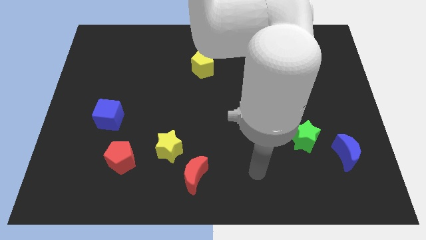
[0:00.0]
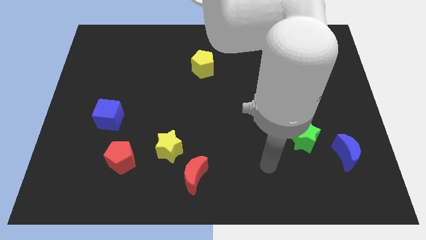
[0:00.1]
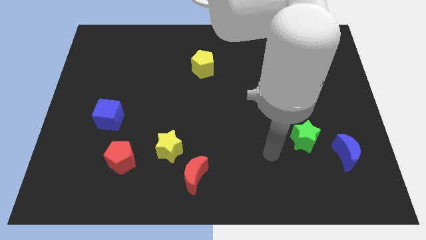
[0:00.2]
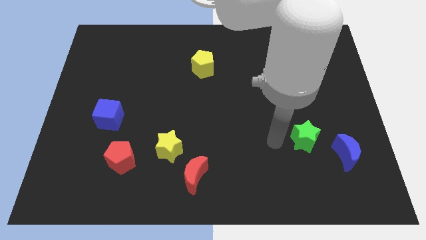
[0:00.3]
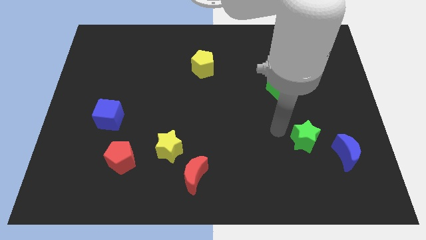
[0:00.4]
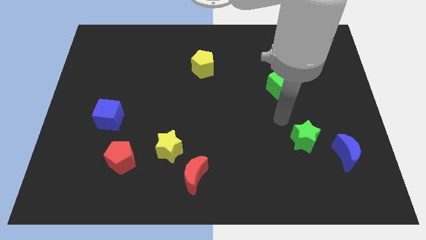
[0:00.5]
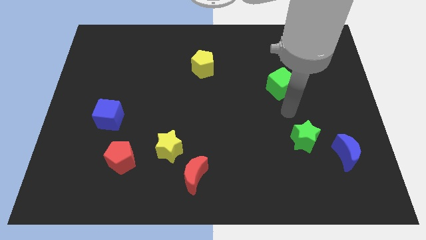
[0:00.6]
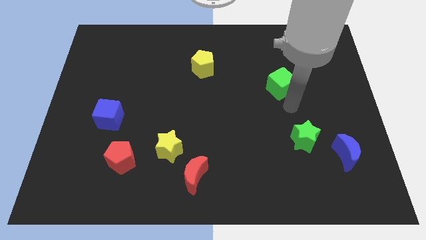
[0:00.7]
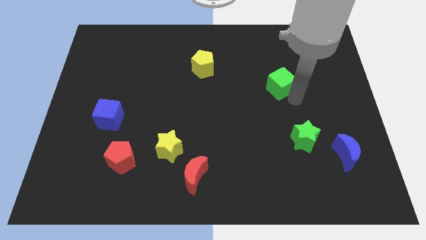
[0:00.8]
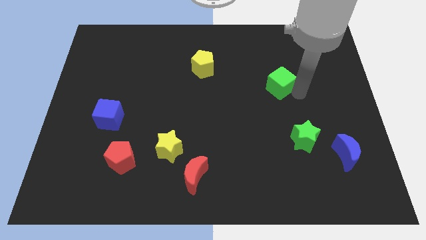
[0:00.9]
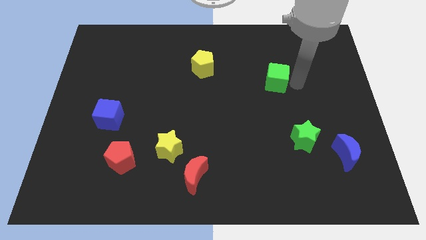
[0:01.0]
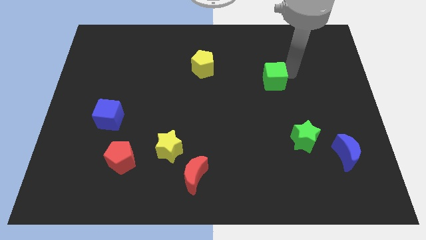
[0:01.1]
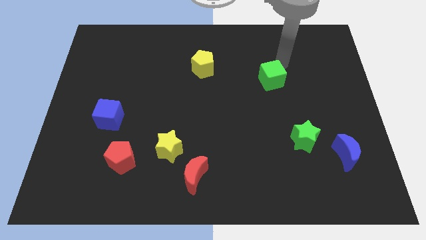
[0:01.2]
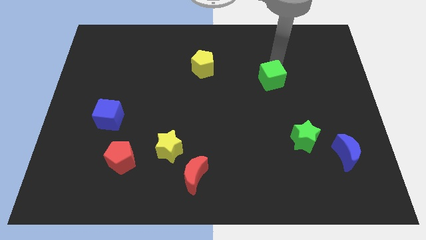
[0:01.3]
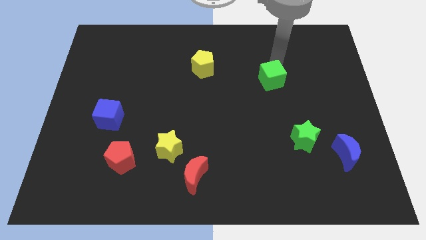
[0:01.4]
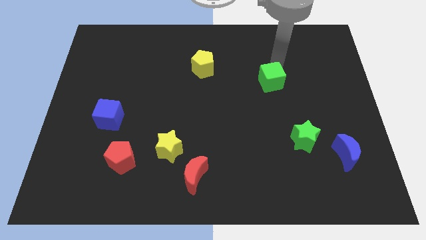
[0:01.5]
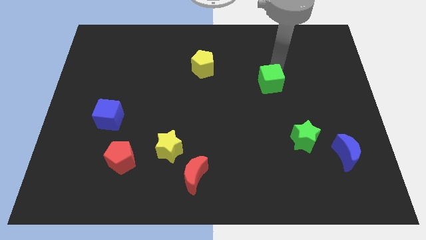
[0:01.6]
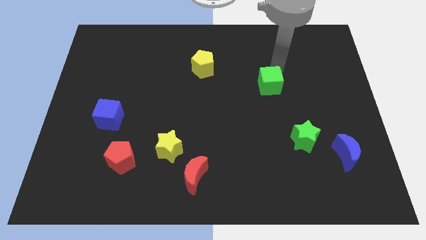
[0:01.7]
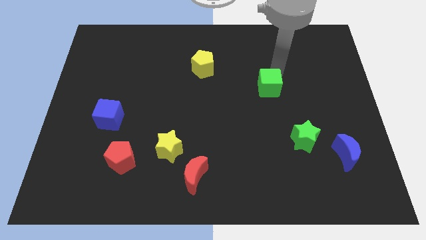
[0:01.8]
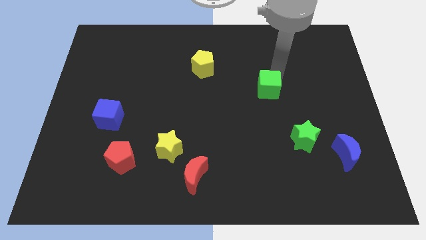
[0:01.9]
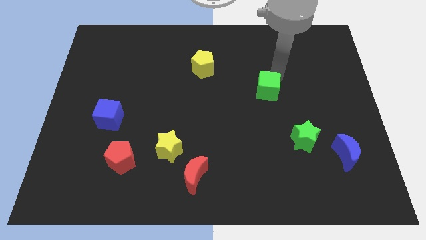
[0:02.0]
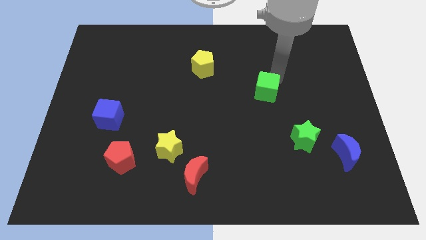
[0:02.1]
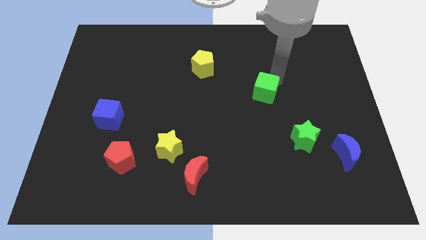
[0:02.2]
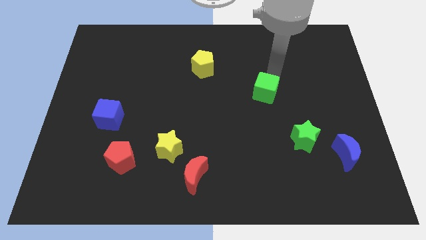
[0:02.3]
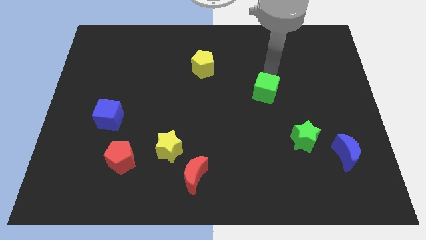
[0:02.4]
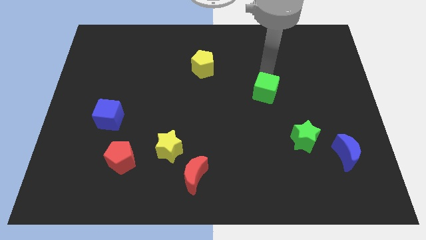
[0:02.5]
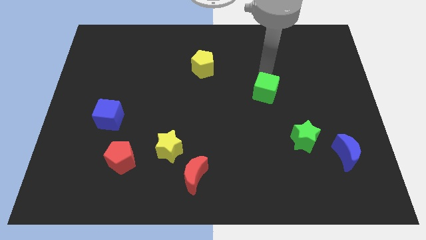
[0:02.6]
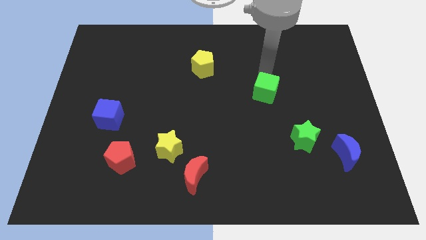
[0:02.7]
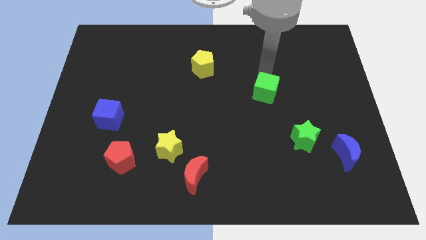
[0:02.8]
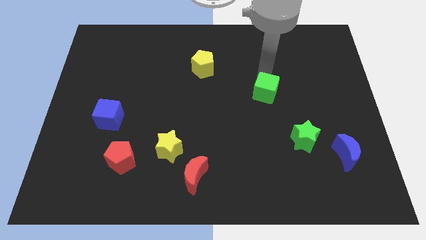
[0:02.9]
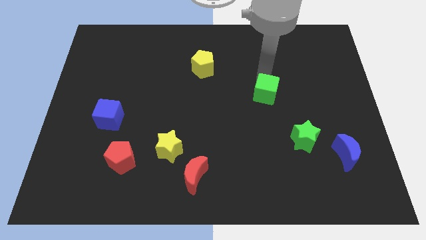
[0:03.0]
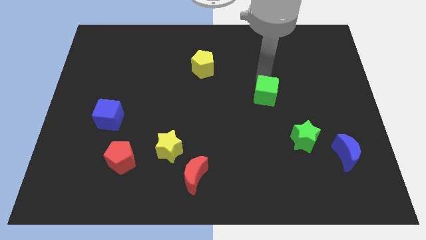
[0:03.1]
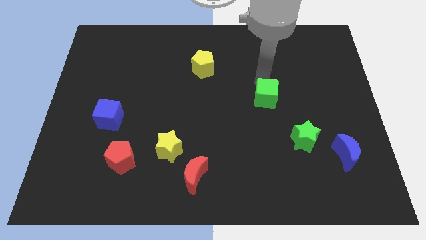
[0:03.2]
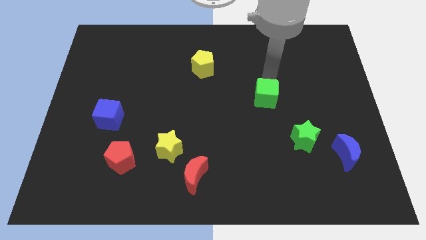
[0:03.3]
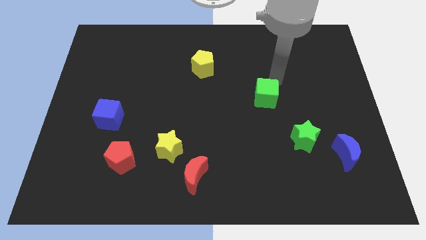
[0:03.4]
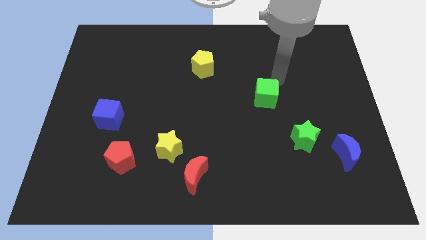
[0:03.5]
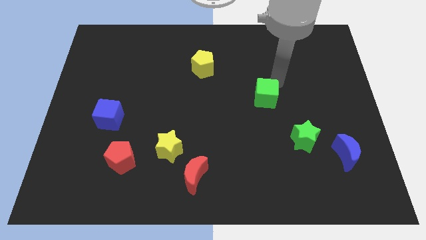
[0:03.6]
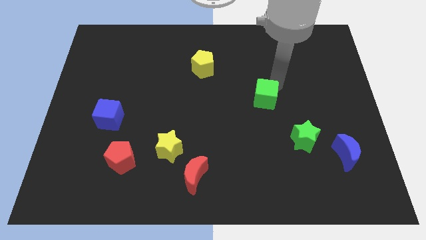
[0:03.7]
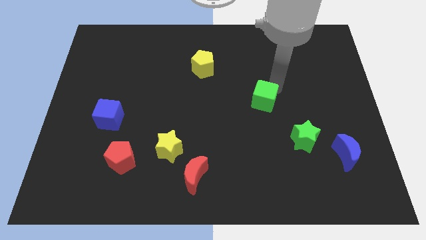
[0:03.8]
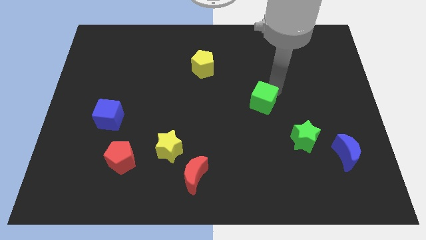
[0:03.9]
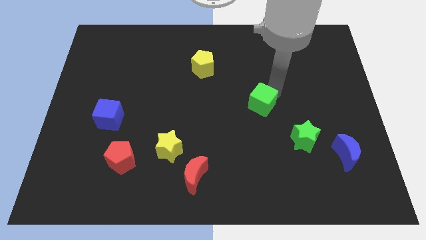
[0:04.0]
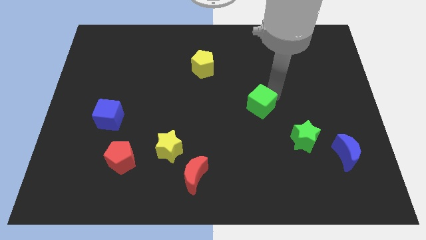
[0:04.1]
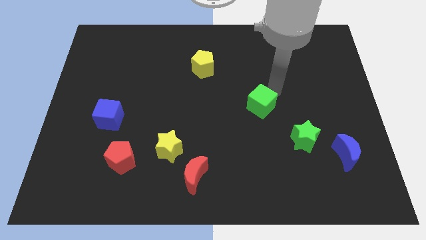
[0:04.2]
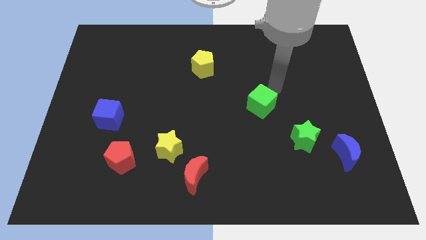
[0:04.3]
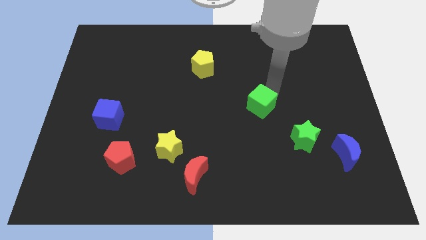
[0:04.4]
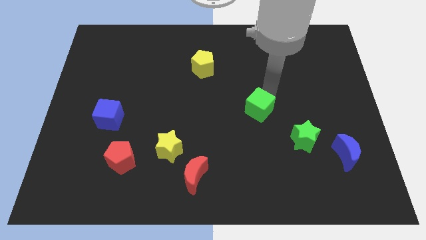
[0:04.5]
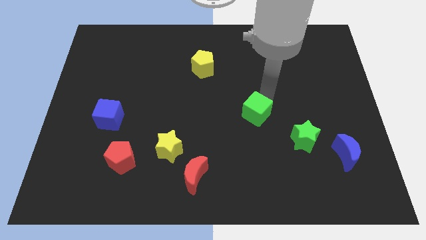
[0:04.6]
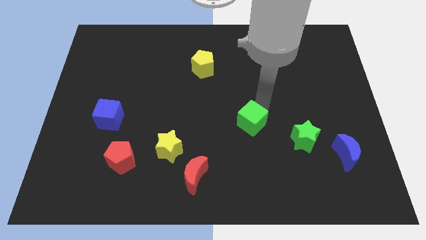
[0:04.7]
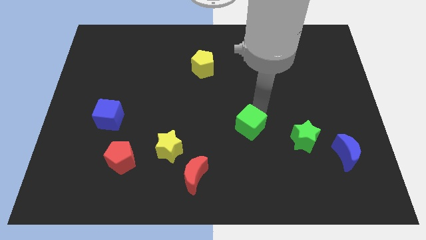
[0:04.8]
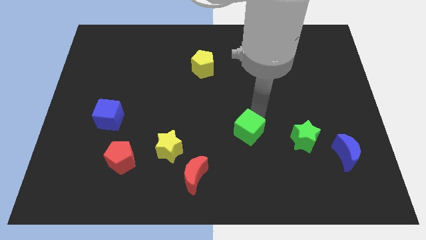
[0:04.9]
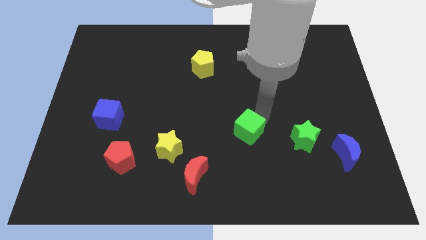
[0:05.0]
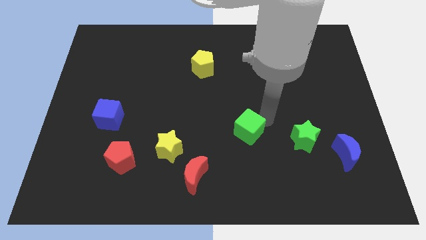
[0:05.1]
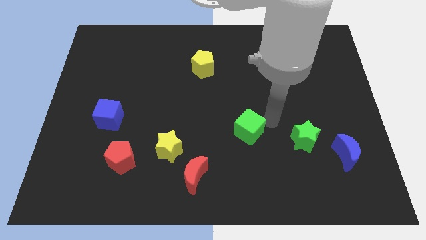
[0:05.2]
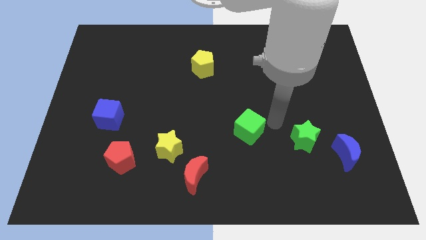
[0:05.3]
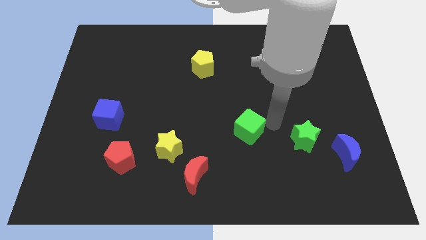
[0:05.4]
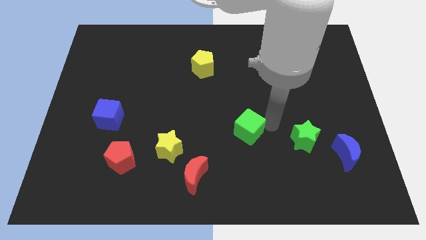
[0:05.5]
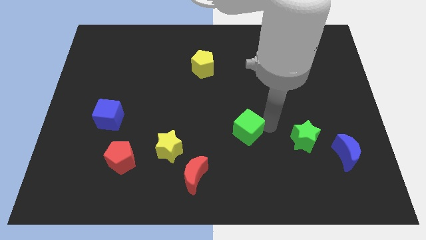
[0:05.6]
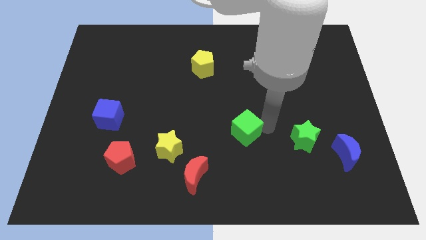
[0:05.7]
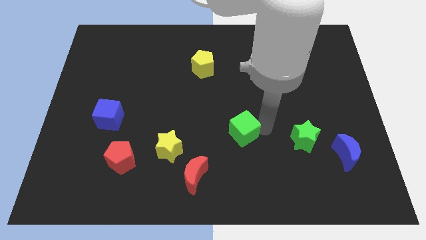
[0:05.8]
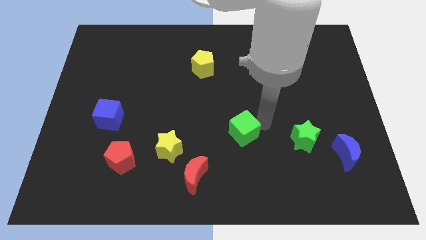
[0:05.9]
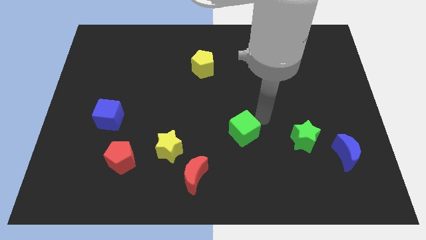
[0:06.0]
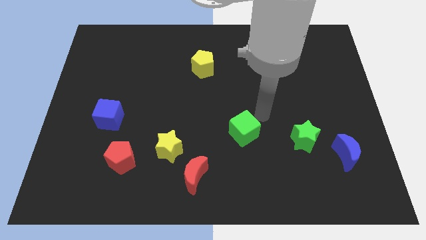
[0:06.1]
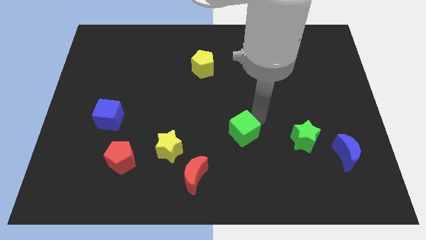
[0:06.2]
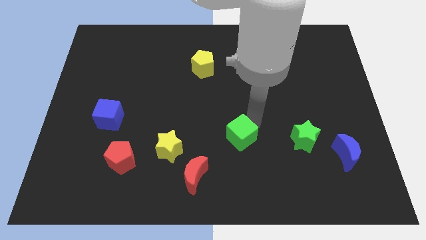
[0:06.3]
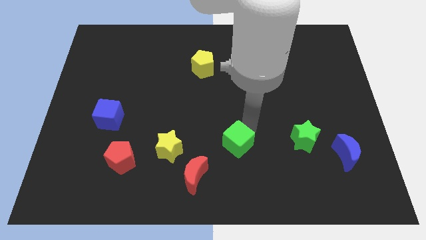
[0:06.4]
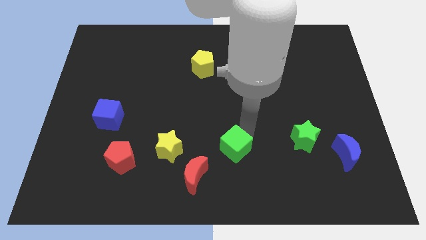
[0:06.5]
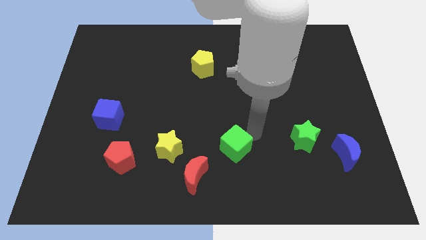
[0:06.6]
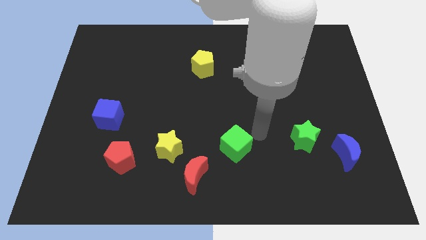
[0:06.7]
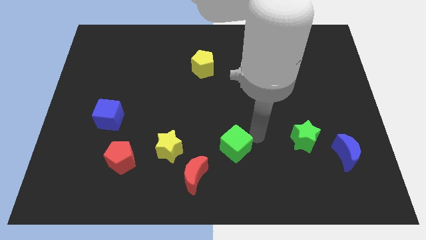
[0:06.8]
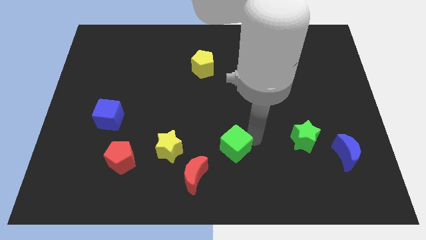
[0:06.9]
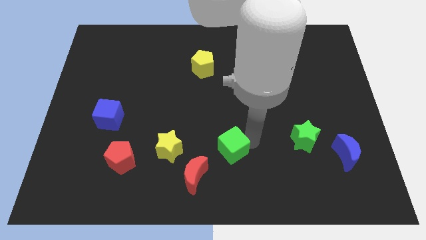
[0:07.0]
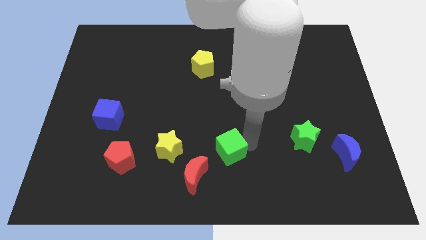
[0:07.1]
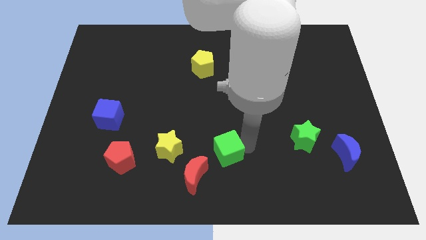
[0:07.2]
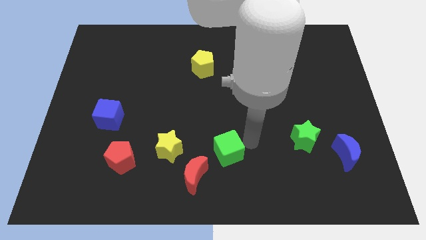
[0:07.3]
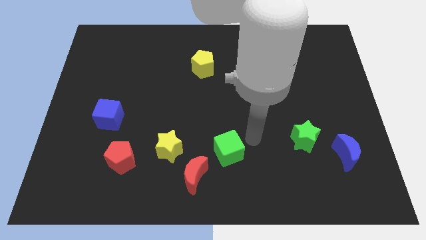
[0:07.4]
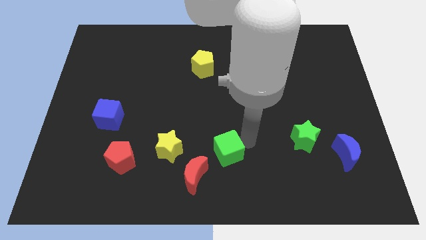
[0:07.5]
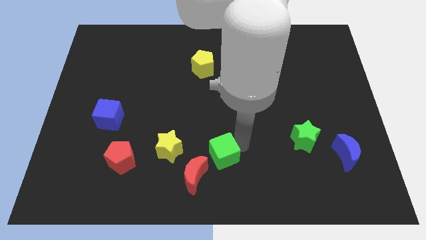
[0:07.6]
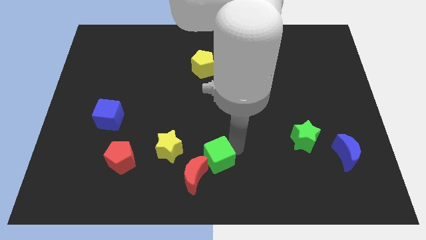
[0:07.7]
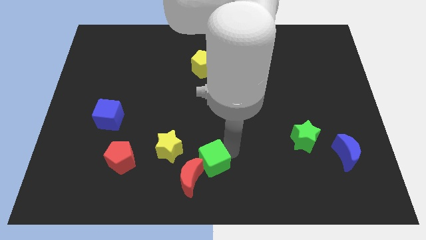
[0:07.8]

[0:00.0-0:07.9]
move the green cube to the red moon
